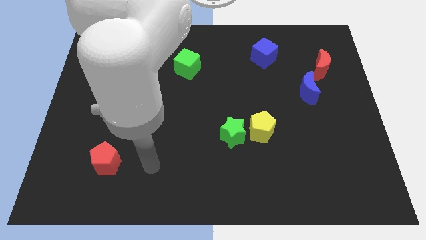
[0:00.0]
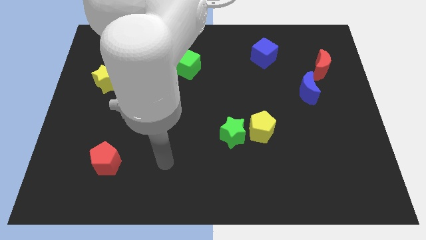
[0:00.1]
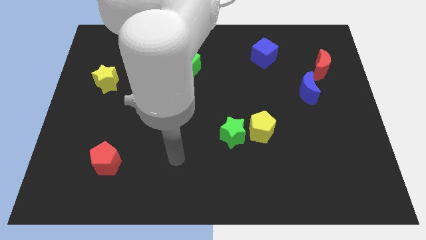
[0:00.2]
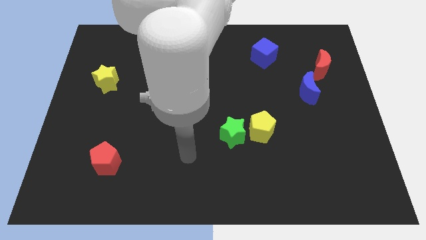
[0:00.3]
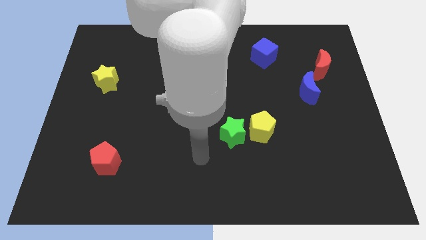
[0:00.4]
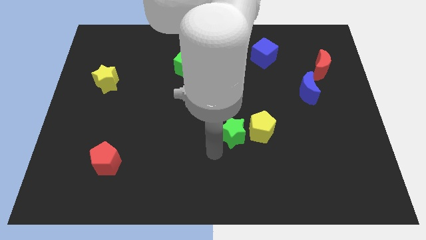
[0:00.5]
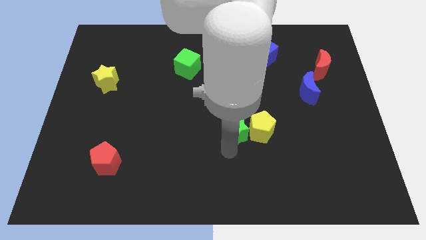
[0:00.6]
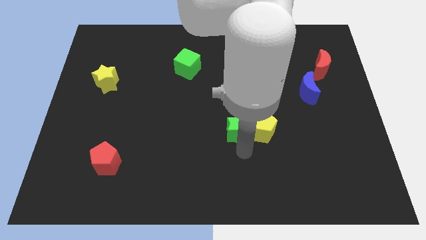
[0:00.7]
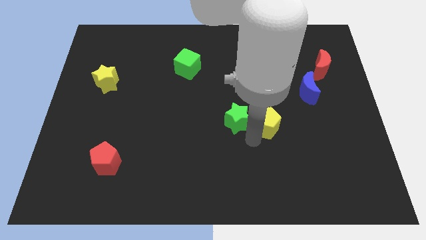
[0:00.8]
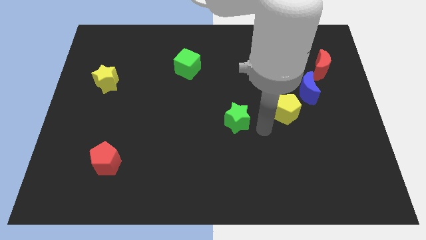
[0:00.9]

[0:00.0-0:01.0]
pull the green star apart from the yellow pentagon

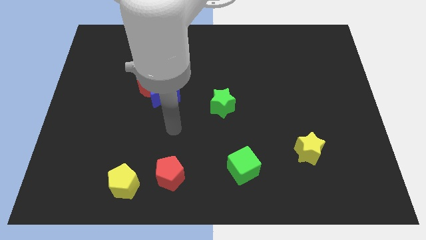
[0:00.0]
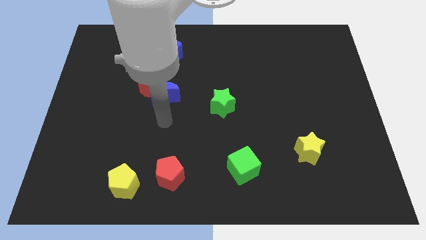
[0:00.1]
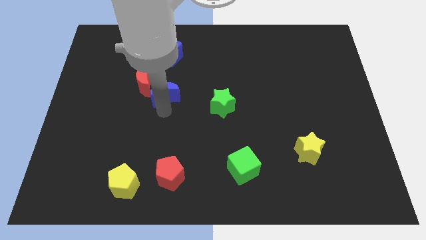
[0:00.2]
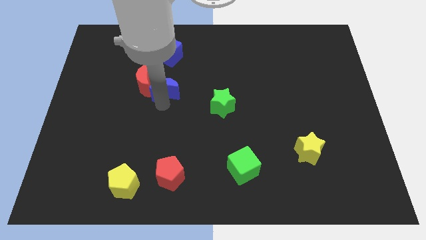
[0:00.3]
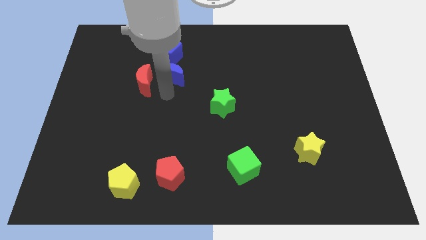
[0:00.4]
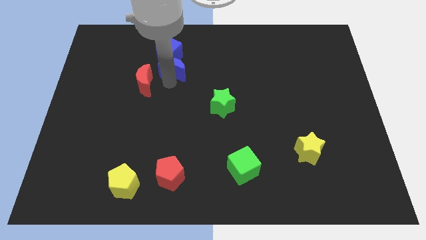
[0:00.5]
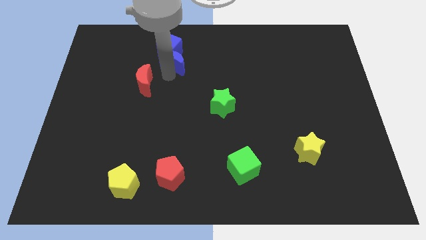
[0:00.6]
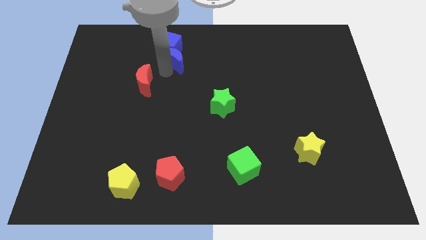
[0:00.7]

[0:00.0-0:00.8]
pull the red moon apart from the blue moon

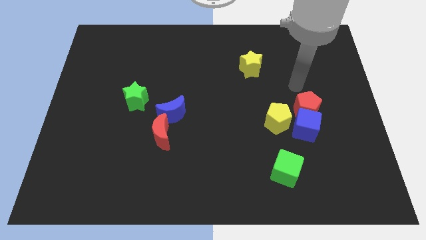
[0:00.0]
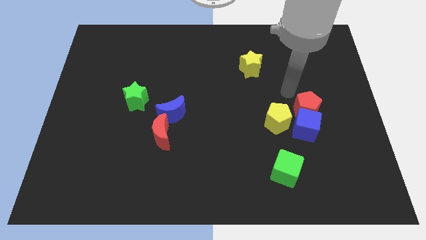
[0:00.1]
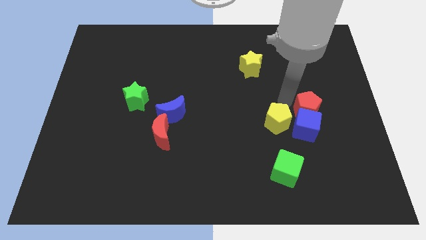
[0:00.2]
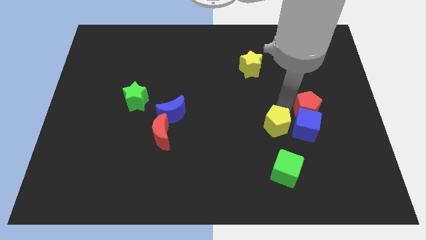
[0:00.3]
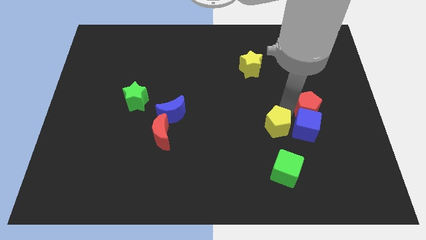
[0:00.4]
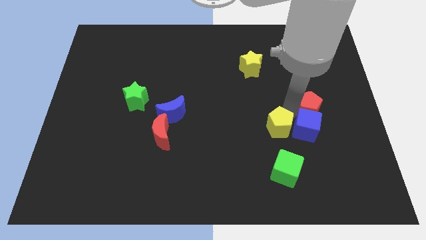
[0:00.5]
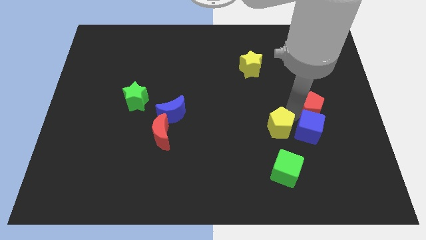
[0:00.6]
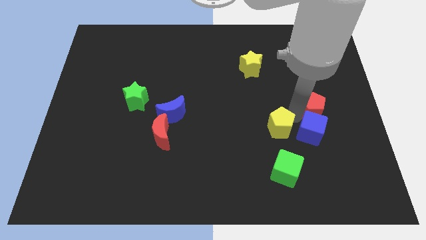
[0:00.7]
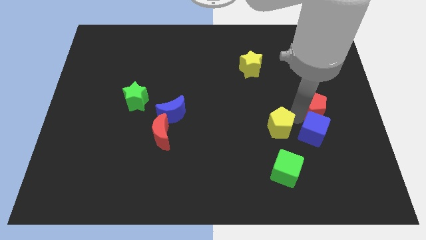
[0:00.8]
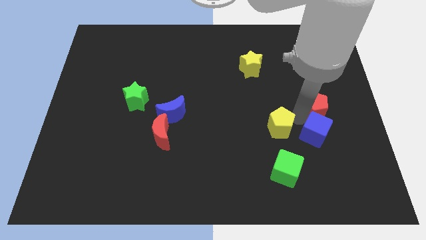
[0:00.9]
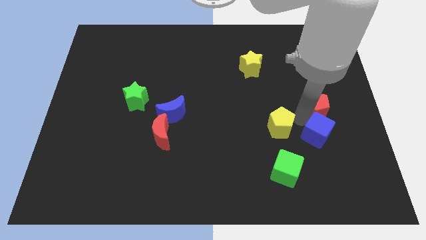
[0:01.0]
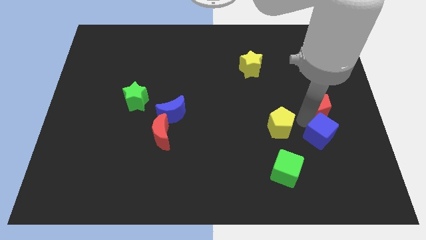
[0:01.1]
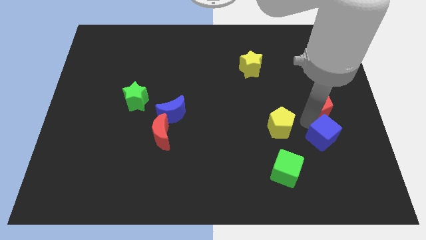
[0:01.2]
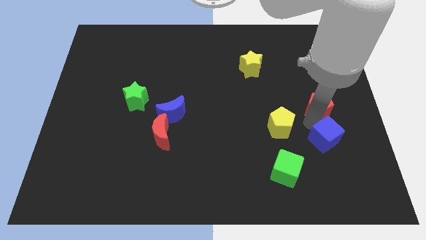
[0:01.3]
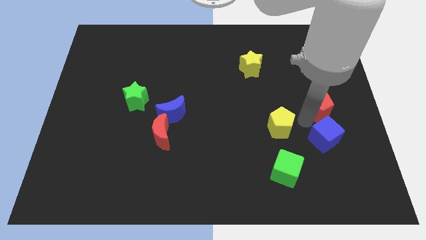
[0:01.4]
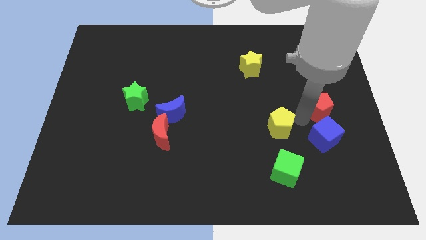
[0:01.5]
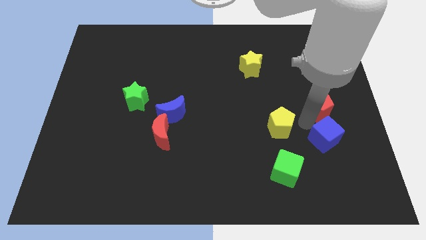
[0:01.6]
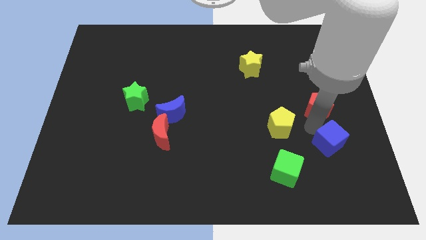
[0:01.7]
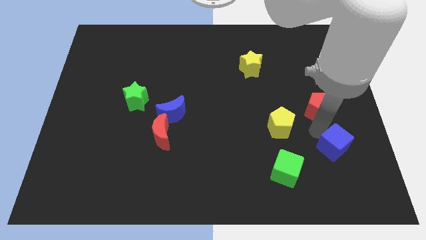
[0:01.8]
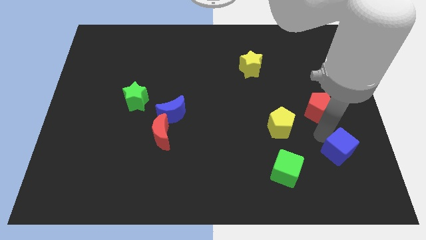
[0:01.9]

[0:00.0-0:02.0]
move the blue cube away from the red pentagon and yellow pentagon

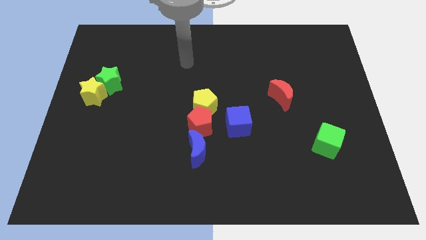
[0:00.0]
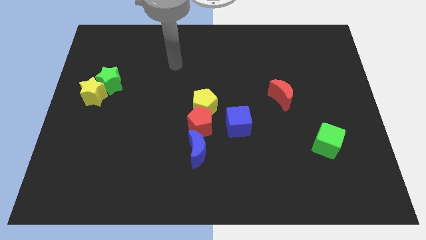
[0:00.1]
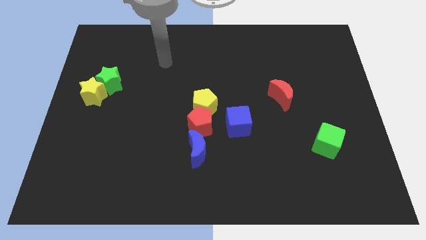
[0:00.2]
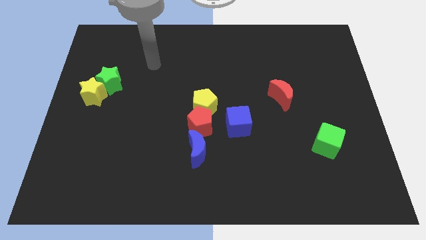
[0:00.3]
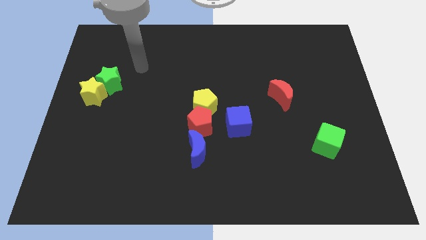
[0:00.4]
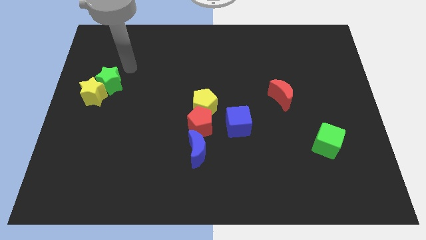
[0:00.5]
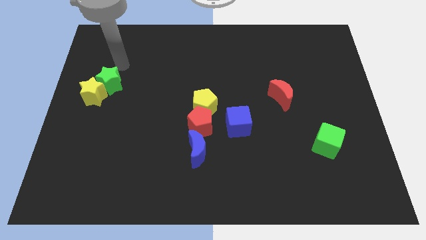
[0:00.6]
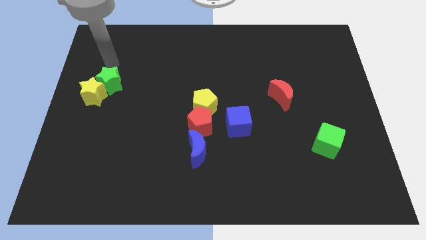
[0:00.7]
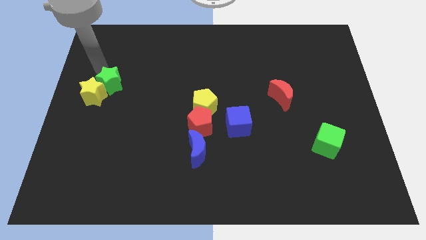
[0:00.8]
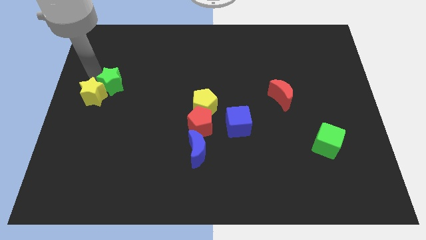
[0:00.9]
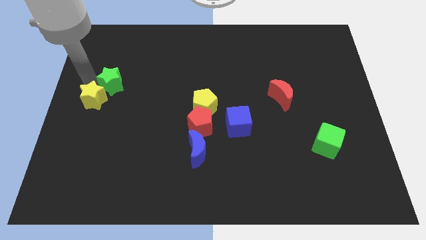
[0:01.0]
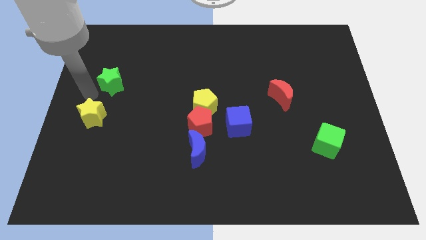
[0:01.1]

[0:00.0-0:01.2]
move the green star away from the yellow star

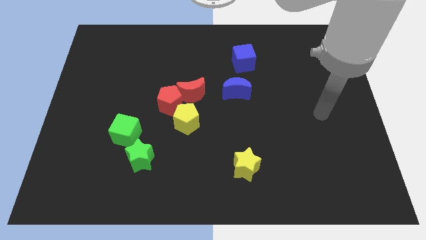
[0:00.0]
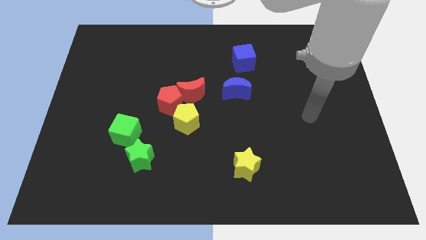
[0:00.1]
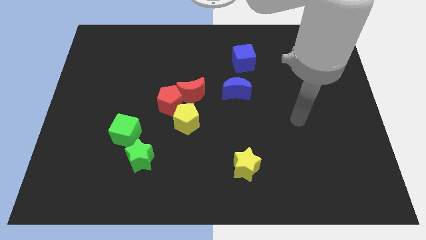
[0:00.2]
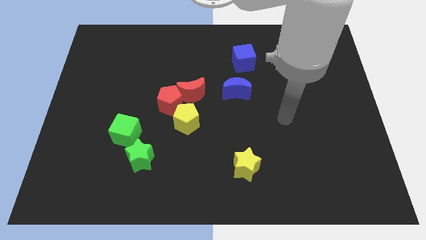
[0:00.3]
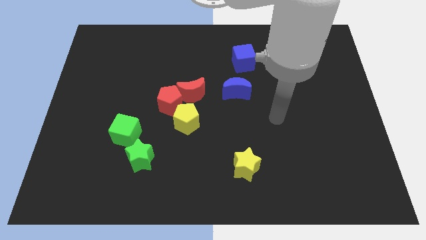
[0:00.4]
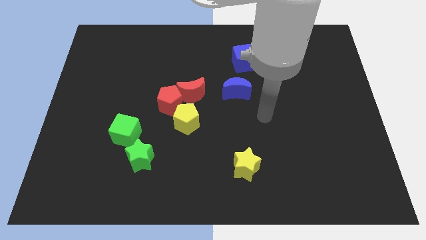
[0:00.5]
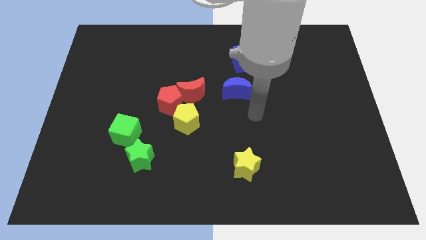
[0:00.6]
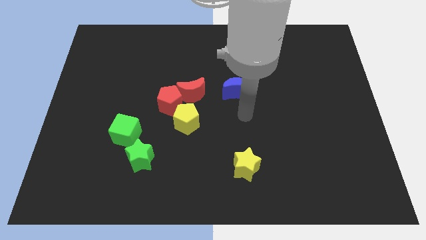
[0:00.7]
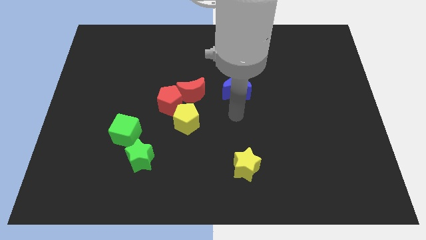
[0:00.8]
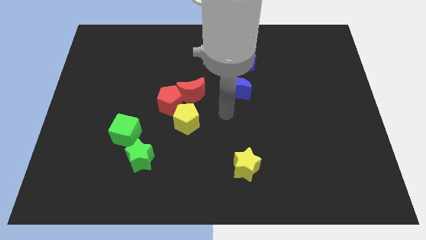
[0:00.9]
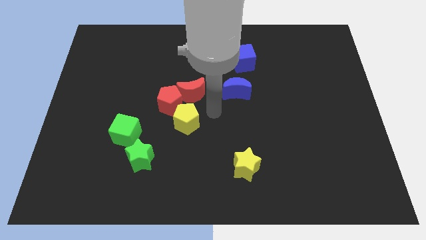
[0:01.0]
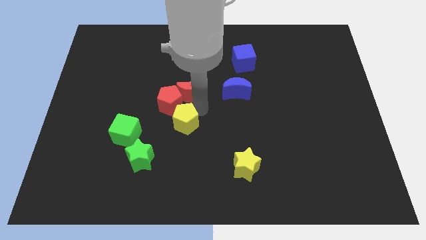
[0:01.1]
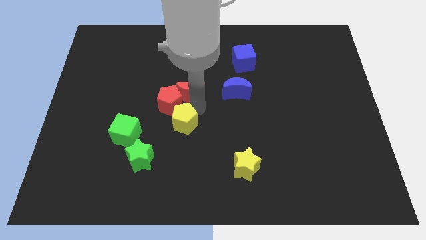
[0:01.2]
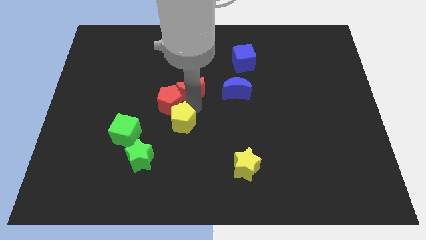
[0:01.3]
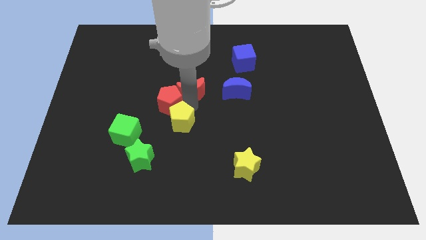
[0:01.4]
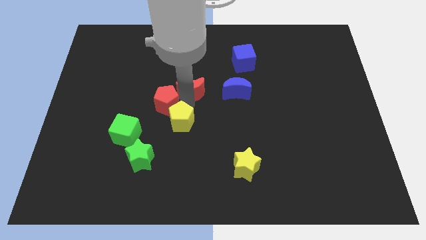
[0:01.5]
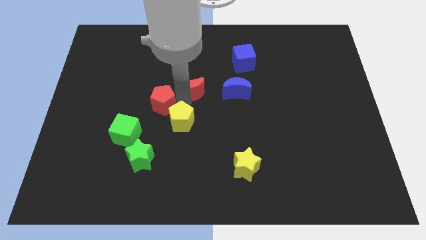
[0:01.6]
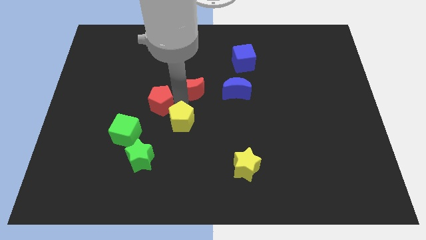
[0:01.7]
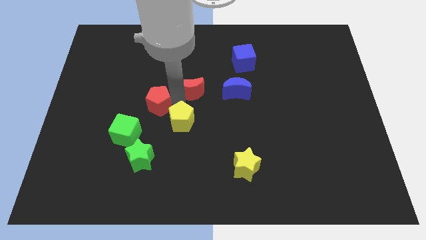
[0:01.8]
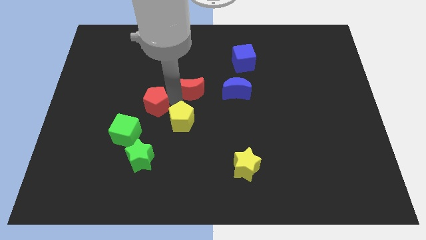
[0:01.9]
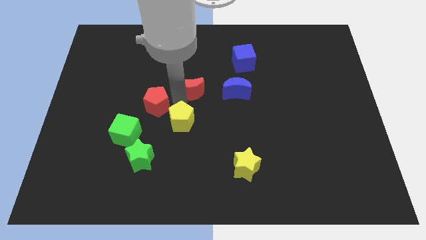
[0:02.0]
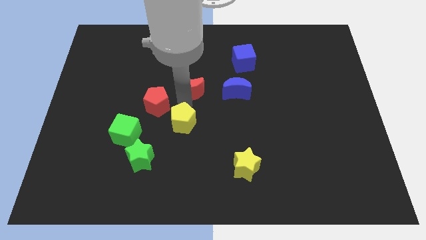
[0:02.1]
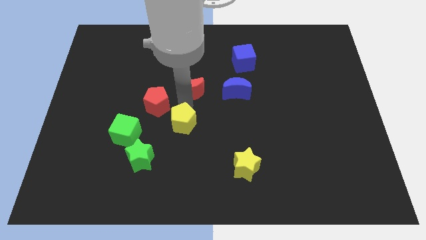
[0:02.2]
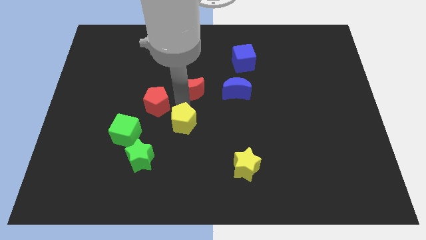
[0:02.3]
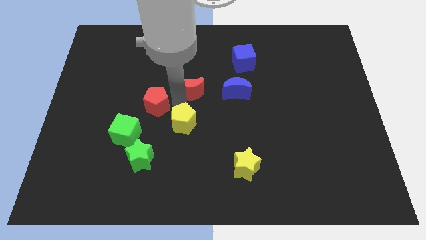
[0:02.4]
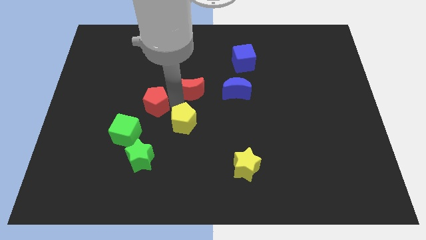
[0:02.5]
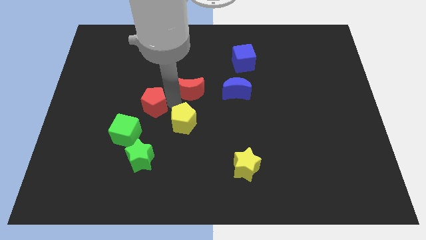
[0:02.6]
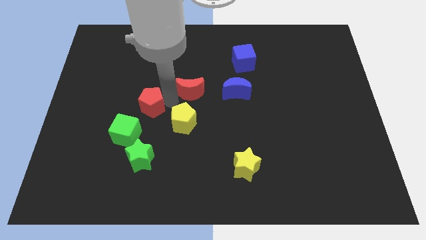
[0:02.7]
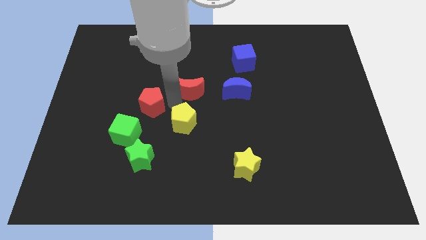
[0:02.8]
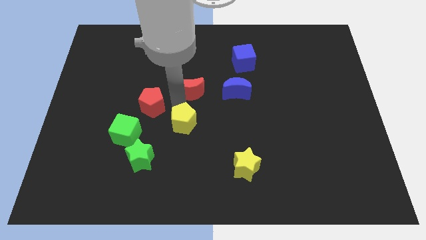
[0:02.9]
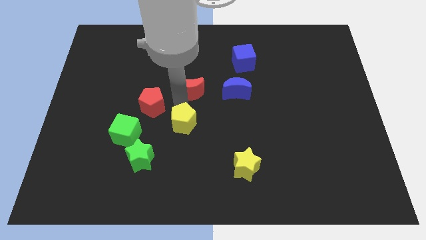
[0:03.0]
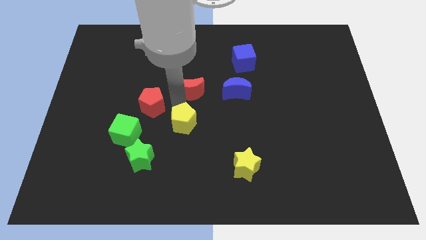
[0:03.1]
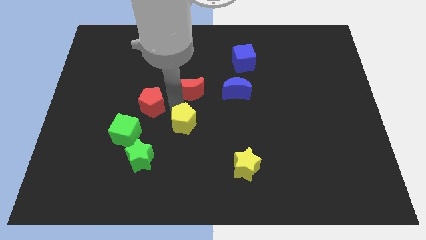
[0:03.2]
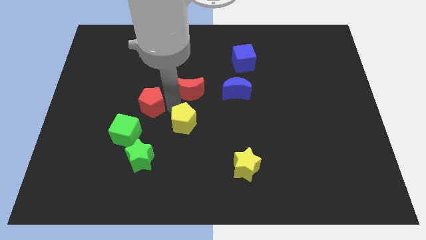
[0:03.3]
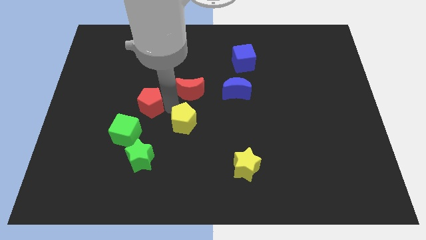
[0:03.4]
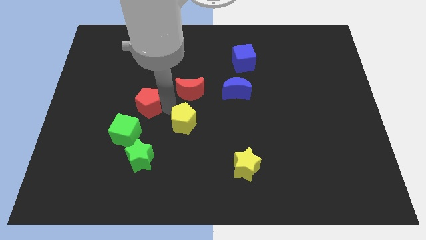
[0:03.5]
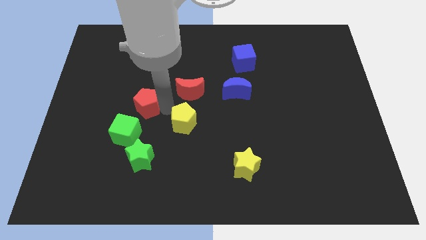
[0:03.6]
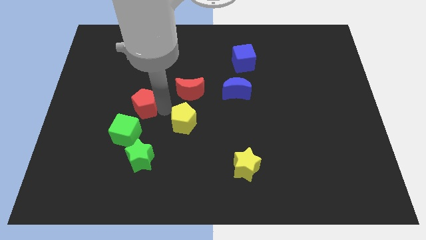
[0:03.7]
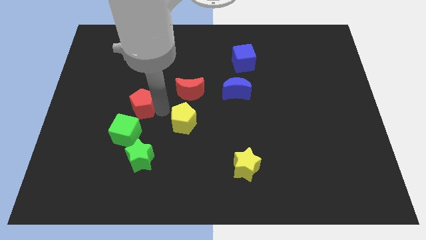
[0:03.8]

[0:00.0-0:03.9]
separate the red pentagon from the red moon and yellow pentagon

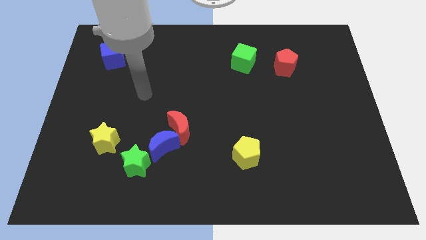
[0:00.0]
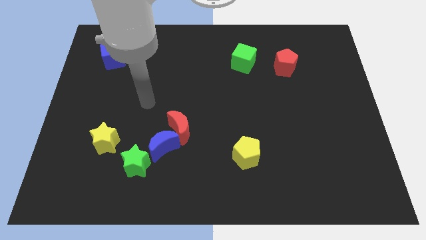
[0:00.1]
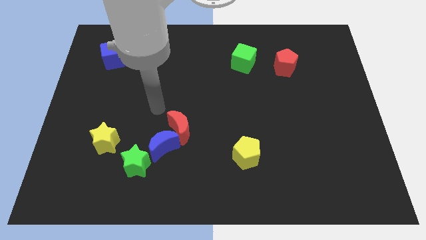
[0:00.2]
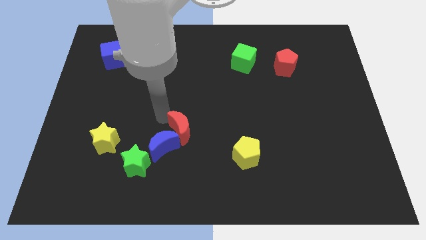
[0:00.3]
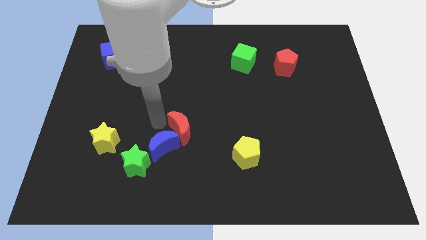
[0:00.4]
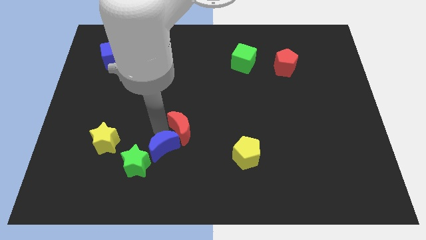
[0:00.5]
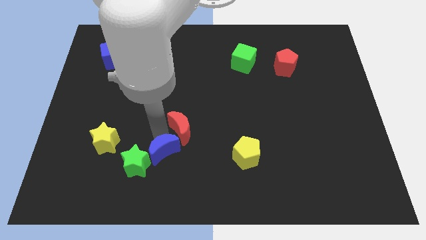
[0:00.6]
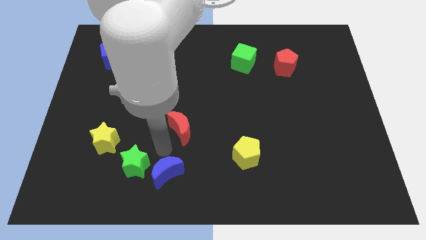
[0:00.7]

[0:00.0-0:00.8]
move the red moon away from the blue moon
